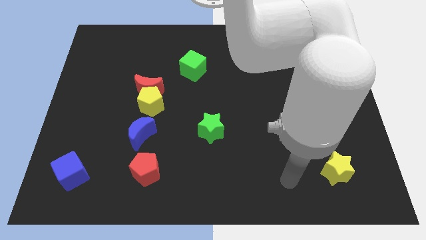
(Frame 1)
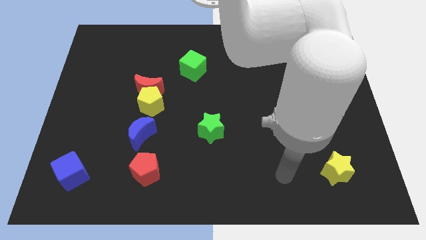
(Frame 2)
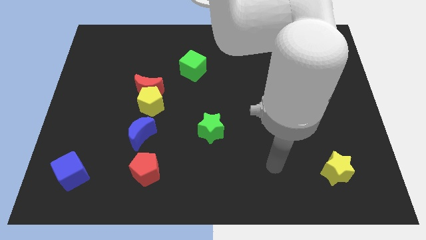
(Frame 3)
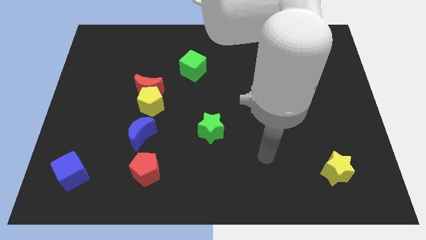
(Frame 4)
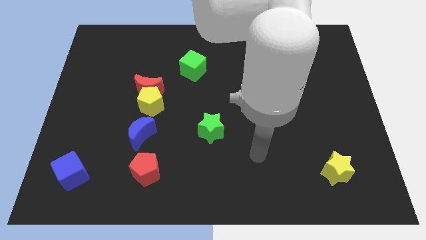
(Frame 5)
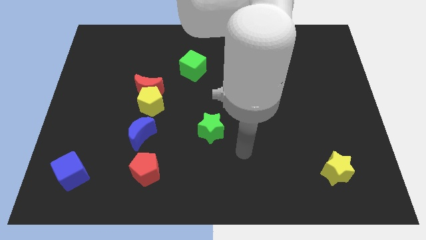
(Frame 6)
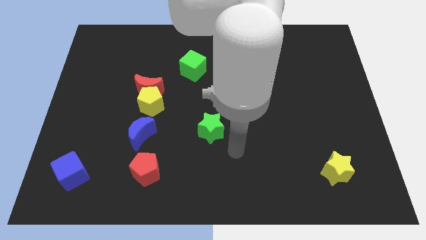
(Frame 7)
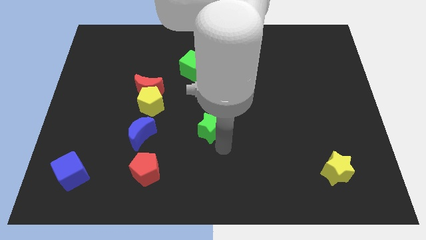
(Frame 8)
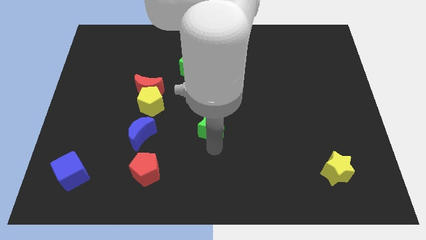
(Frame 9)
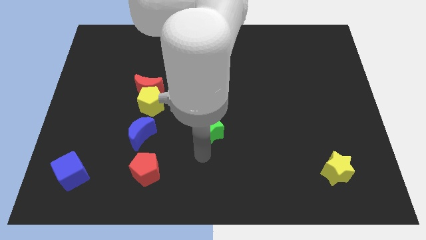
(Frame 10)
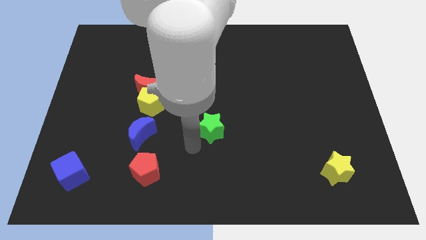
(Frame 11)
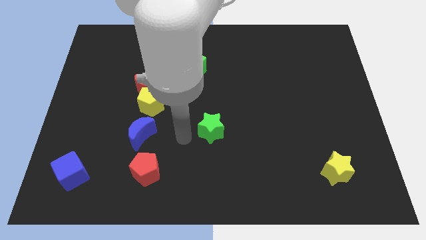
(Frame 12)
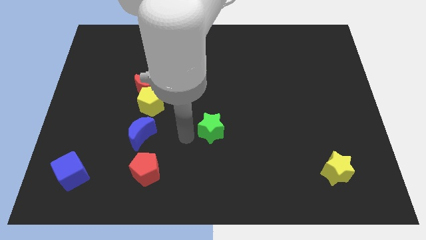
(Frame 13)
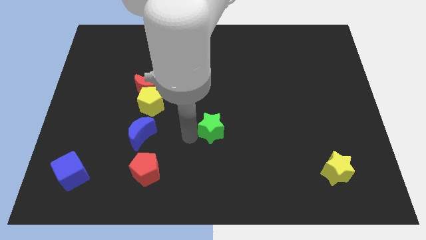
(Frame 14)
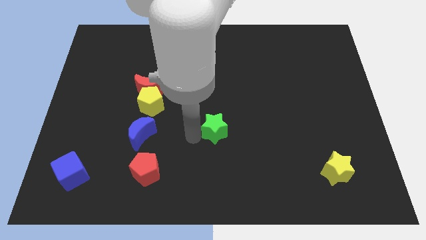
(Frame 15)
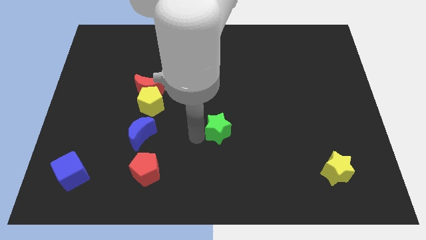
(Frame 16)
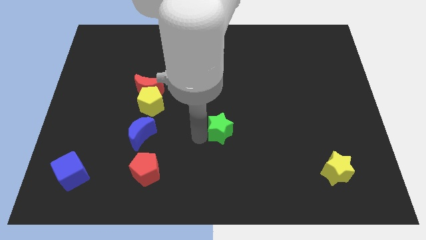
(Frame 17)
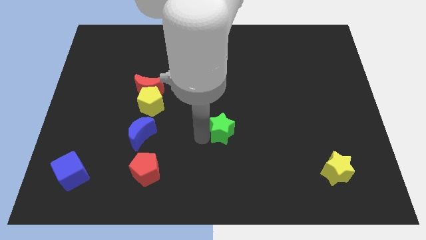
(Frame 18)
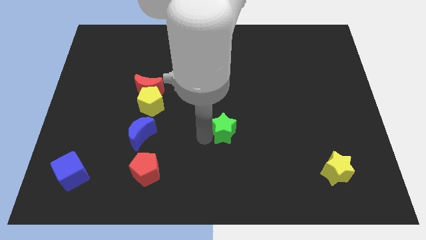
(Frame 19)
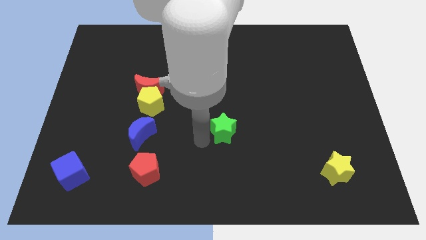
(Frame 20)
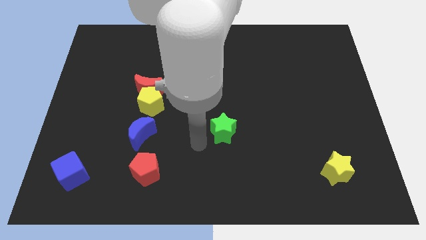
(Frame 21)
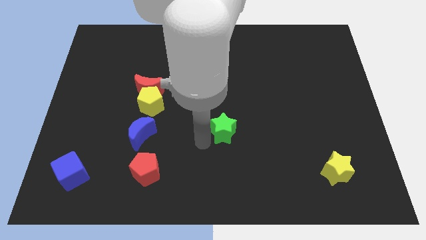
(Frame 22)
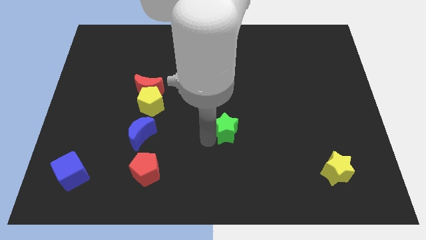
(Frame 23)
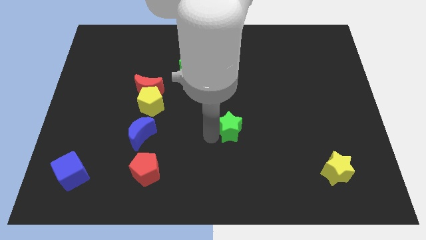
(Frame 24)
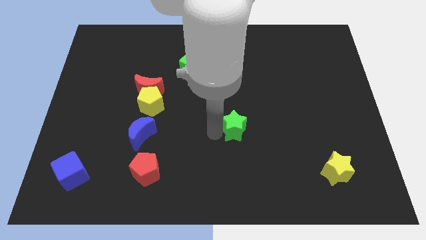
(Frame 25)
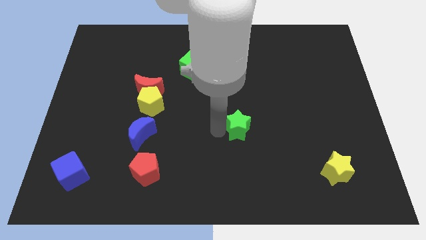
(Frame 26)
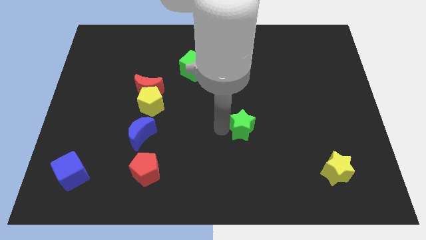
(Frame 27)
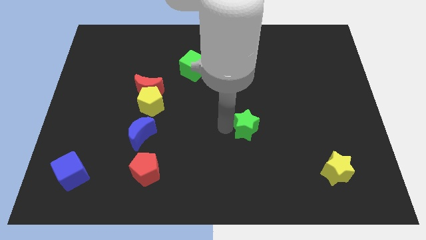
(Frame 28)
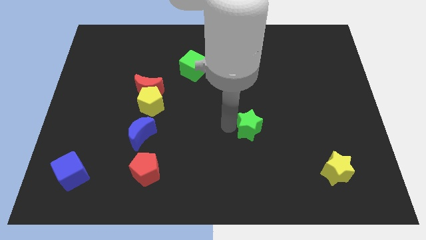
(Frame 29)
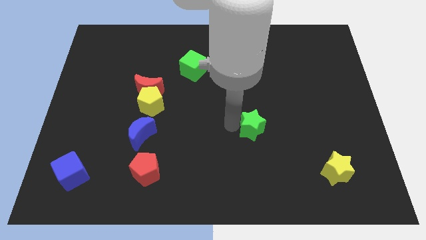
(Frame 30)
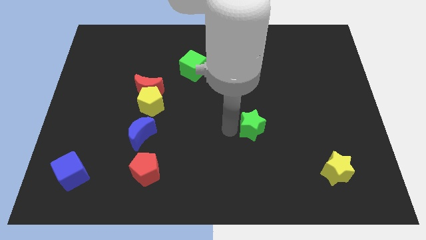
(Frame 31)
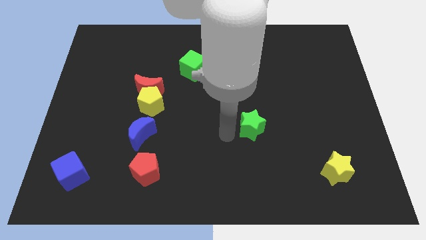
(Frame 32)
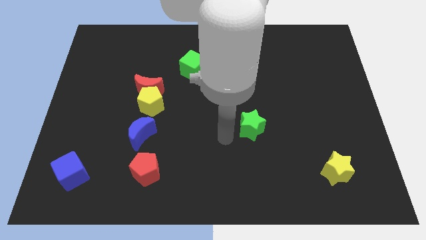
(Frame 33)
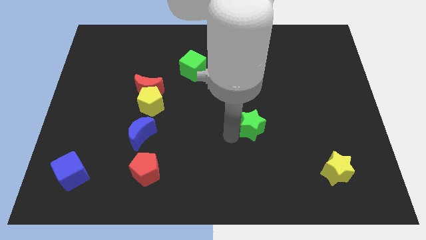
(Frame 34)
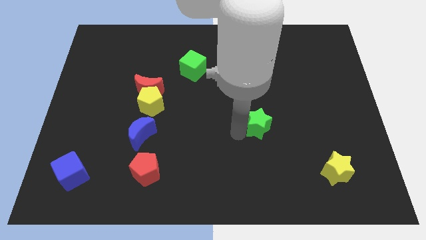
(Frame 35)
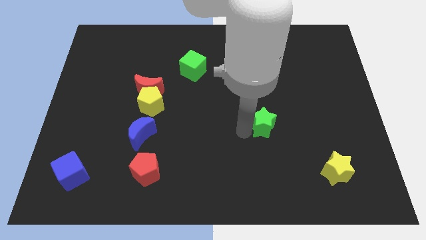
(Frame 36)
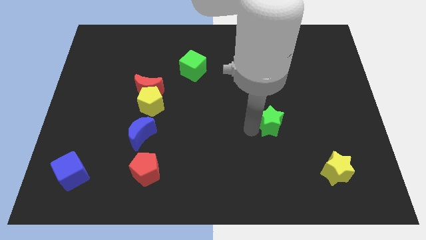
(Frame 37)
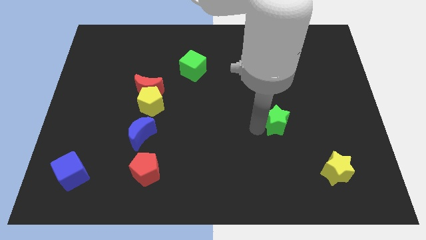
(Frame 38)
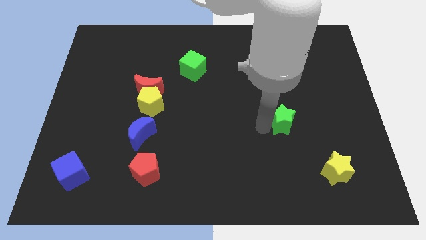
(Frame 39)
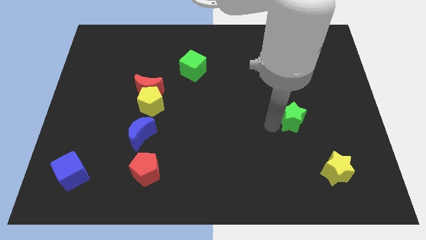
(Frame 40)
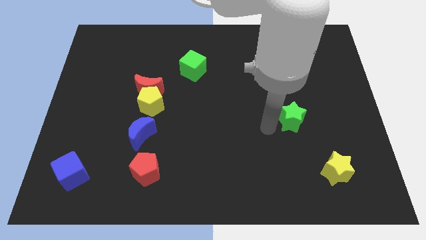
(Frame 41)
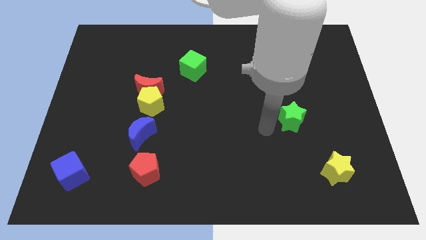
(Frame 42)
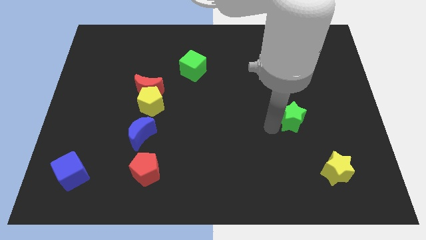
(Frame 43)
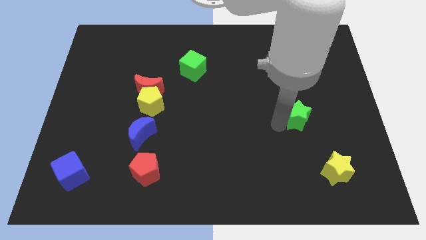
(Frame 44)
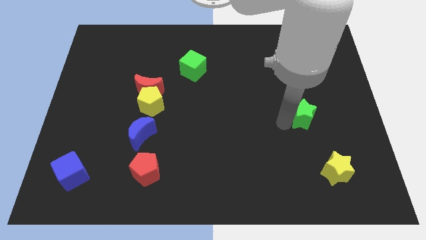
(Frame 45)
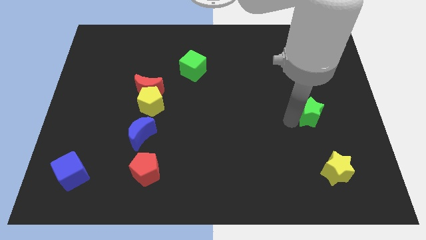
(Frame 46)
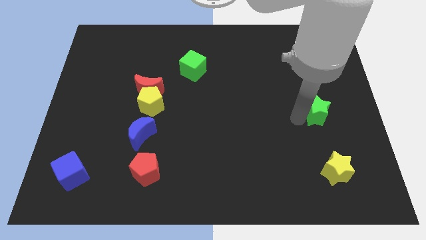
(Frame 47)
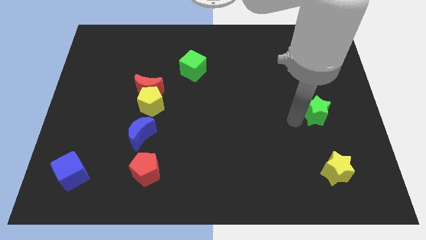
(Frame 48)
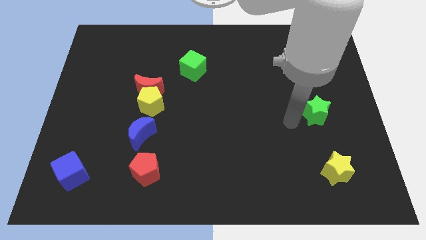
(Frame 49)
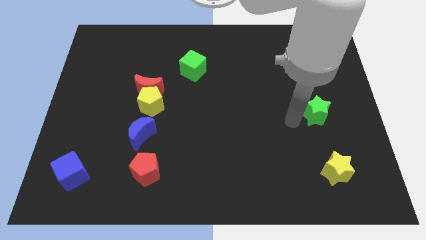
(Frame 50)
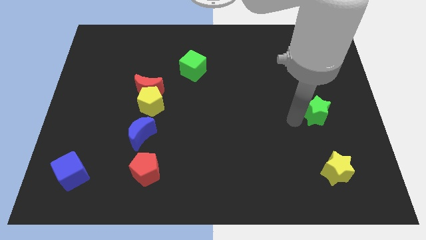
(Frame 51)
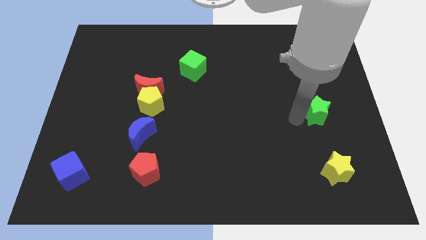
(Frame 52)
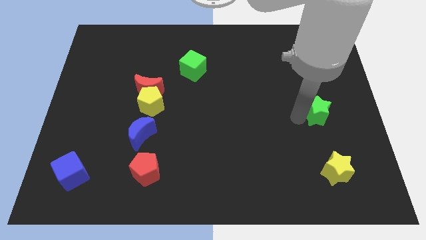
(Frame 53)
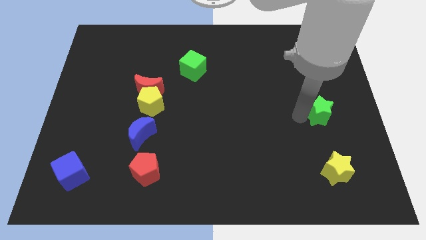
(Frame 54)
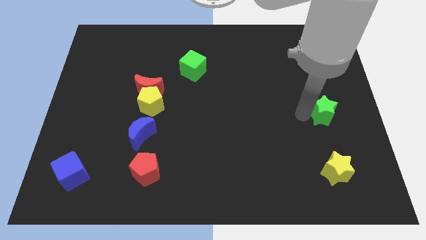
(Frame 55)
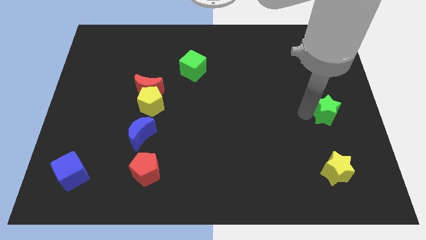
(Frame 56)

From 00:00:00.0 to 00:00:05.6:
slide the green star to the right side of the board

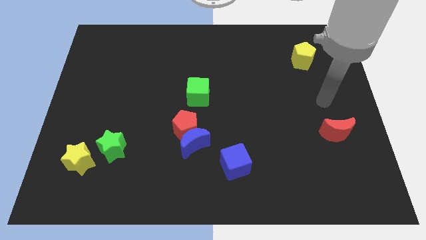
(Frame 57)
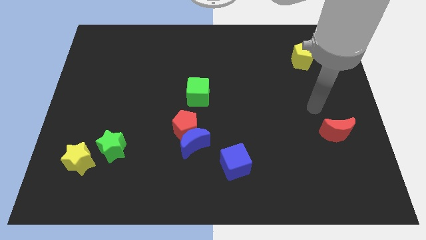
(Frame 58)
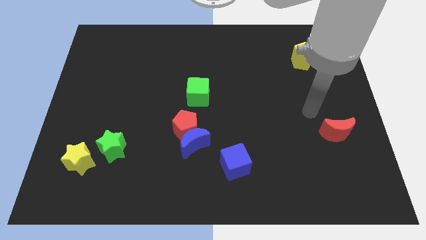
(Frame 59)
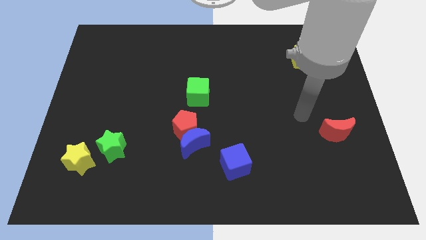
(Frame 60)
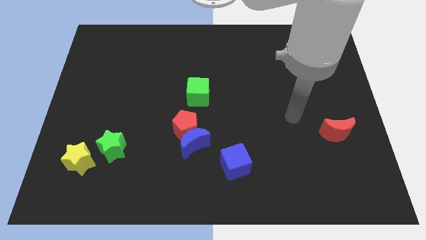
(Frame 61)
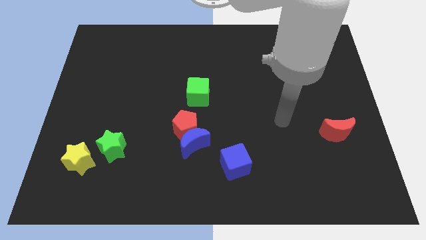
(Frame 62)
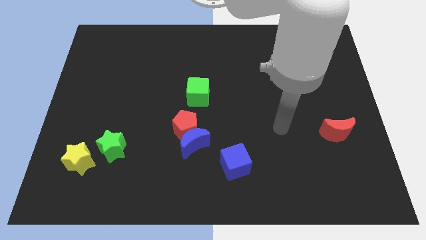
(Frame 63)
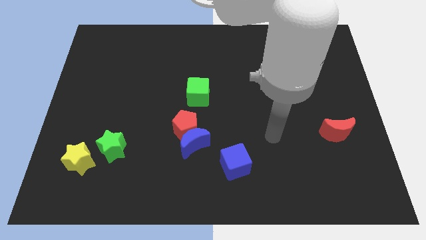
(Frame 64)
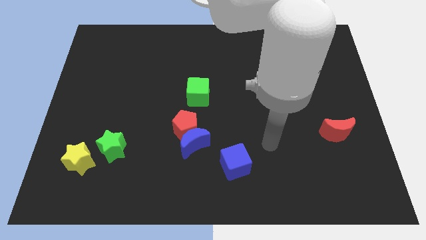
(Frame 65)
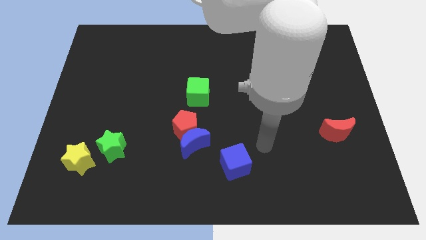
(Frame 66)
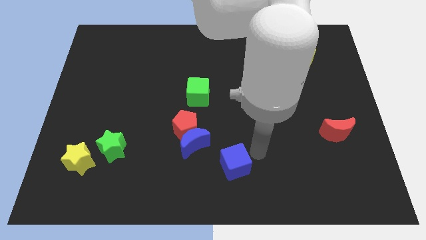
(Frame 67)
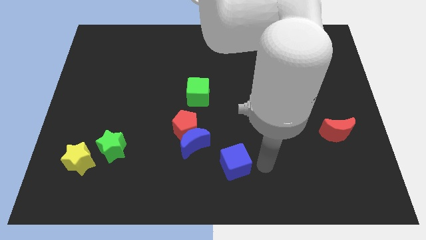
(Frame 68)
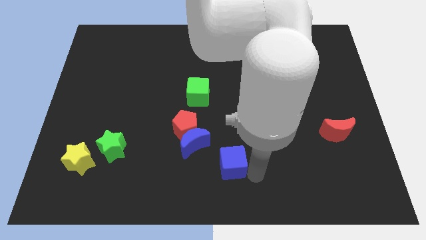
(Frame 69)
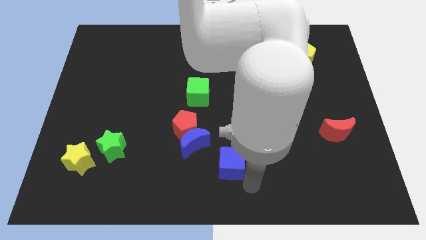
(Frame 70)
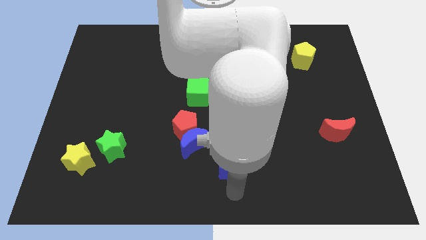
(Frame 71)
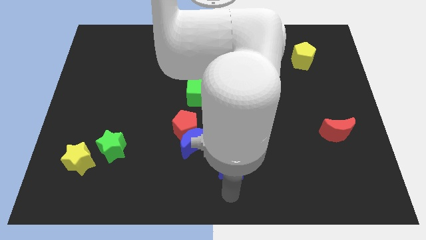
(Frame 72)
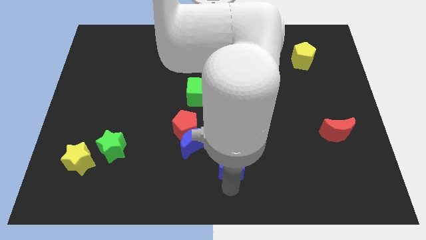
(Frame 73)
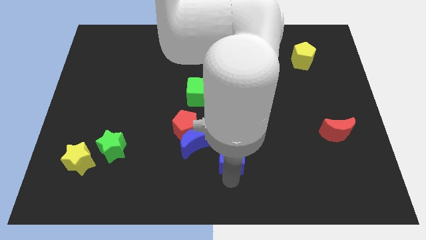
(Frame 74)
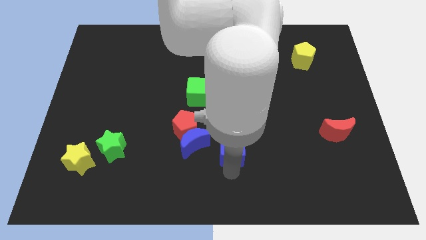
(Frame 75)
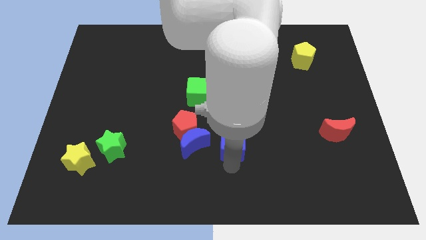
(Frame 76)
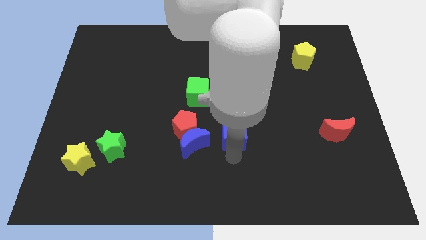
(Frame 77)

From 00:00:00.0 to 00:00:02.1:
push the blue cube to the center of the board
